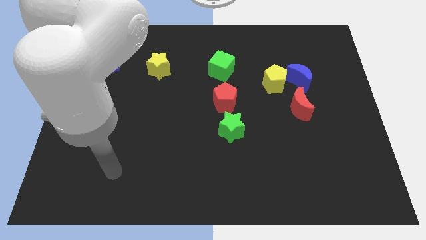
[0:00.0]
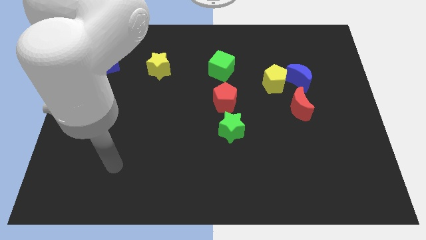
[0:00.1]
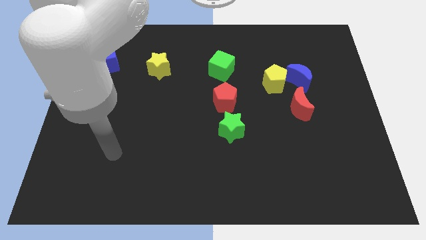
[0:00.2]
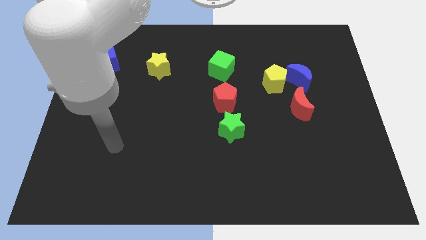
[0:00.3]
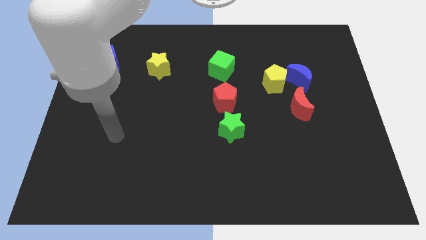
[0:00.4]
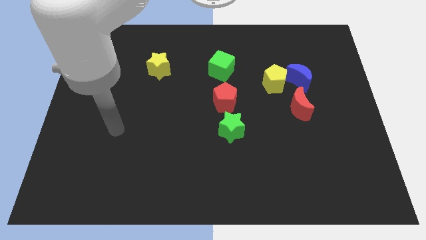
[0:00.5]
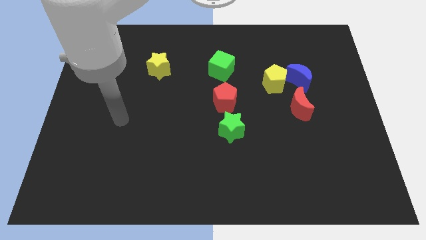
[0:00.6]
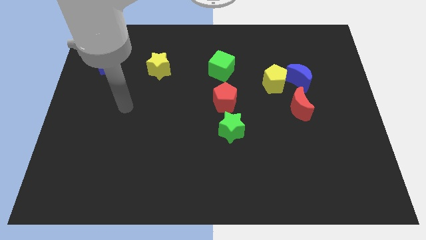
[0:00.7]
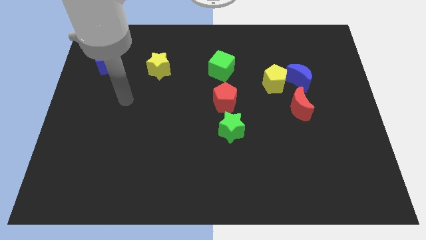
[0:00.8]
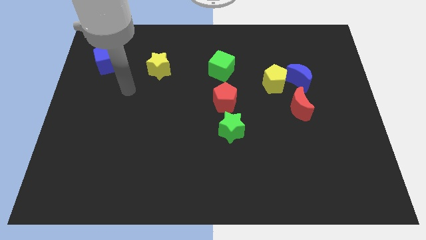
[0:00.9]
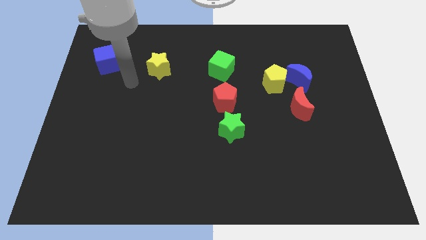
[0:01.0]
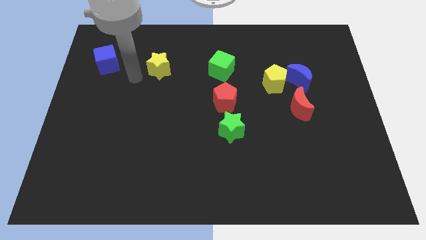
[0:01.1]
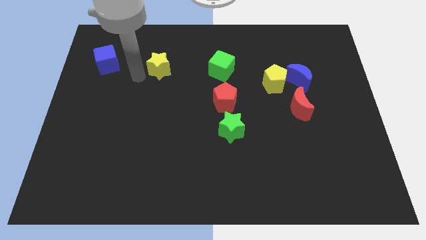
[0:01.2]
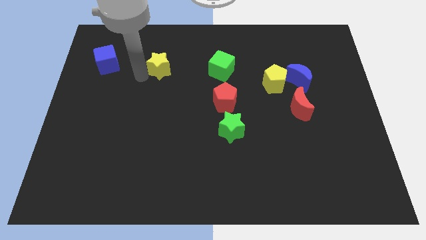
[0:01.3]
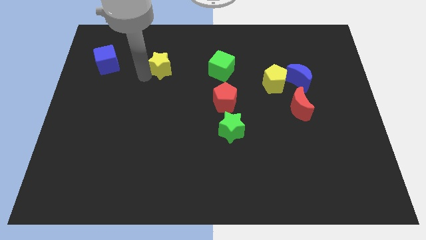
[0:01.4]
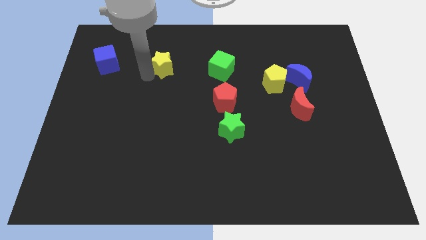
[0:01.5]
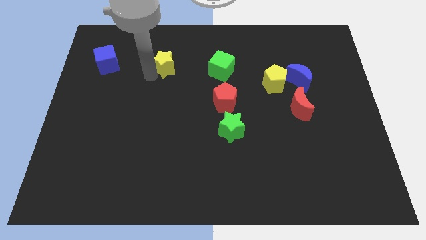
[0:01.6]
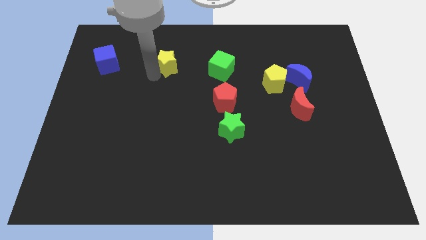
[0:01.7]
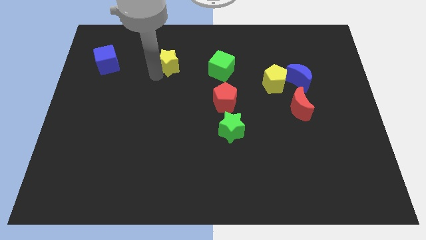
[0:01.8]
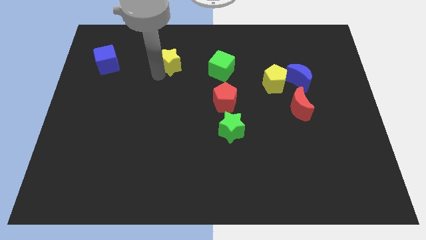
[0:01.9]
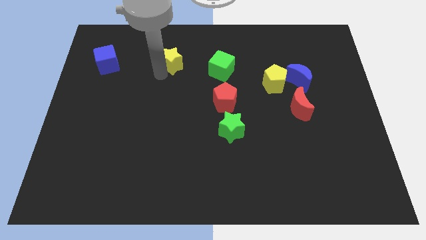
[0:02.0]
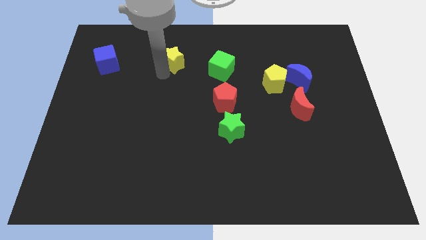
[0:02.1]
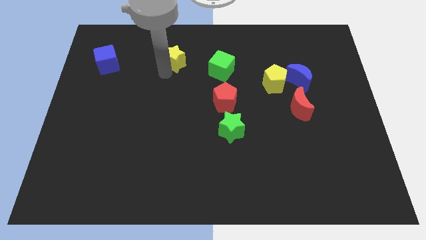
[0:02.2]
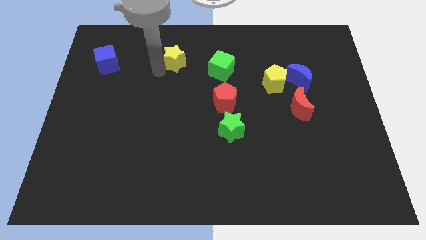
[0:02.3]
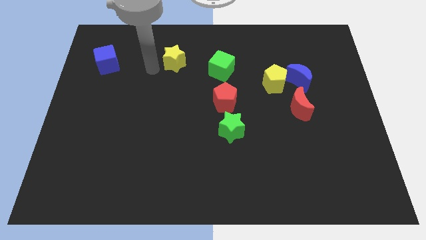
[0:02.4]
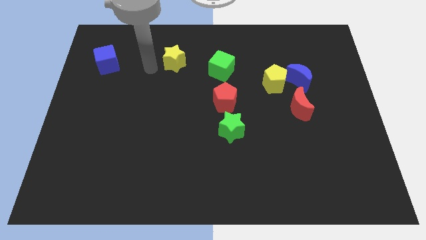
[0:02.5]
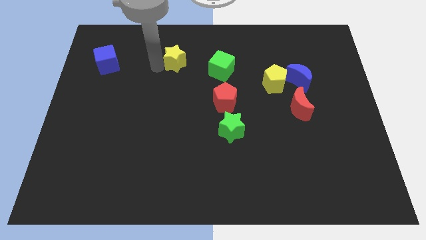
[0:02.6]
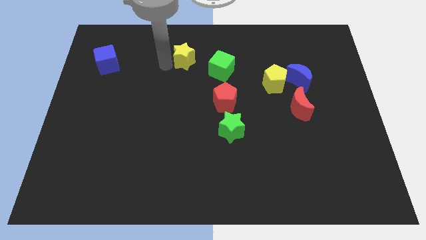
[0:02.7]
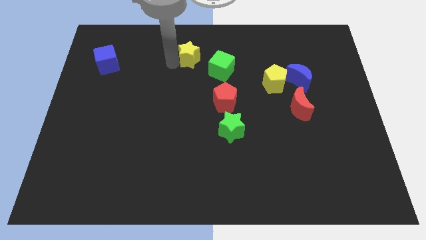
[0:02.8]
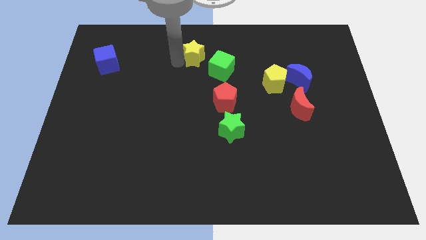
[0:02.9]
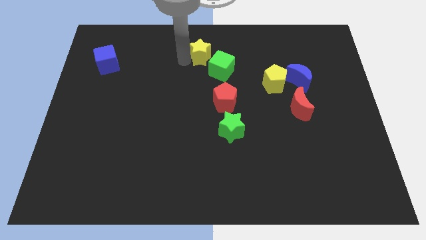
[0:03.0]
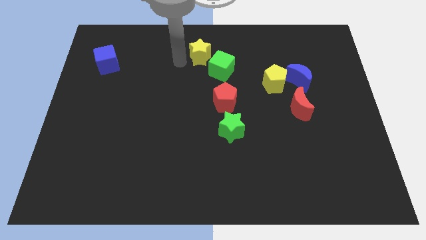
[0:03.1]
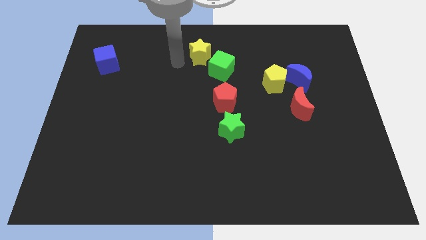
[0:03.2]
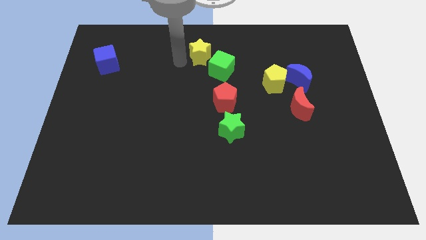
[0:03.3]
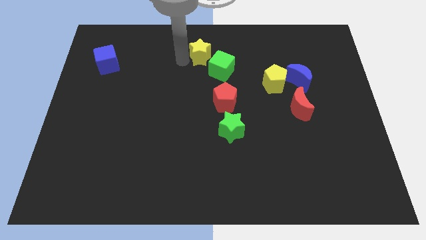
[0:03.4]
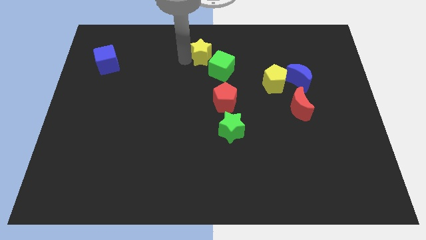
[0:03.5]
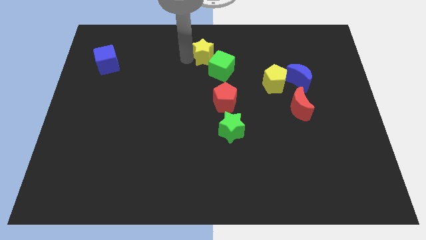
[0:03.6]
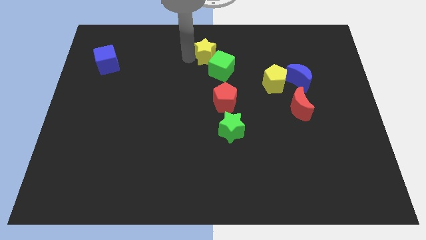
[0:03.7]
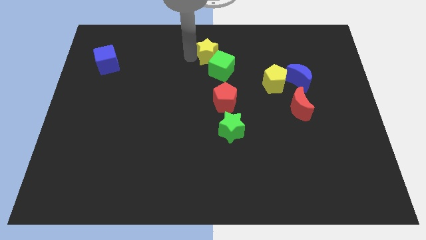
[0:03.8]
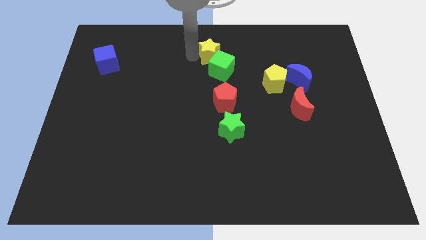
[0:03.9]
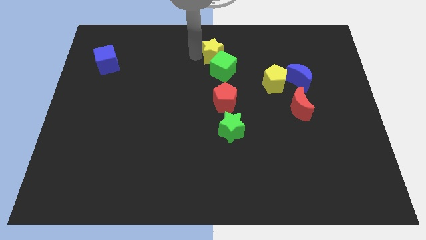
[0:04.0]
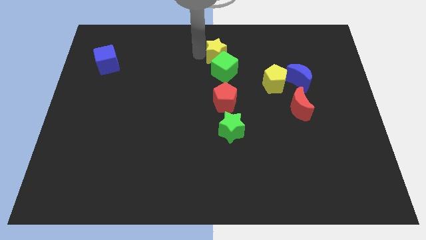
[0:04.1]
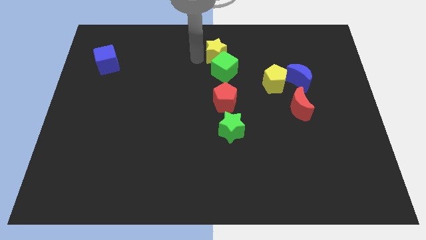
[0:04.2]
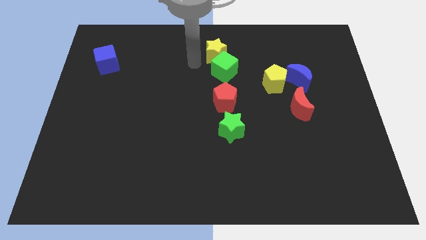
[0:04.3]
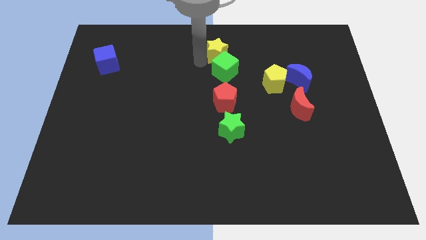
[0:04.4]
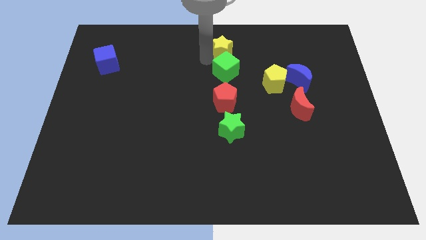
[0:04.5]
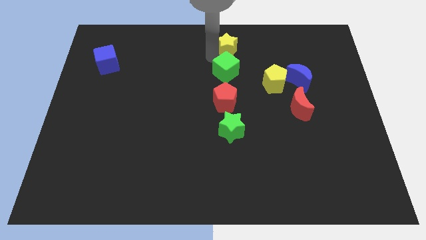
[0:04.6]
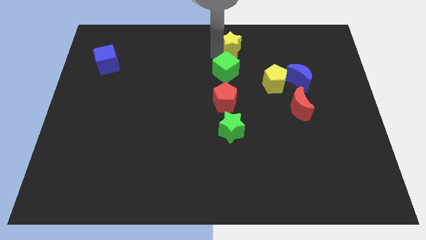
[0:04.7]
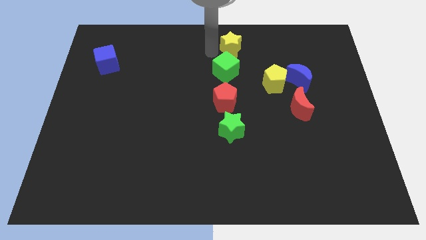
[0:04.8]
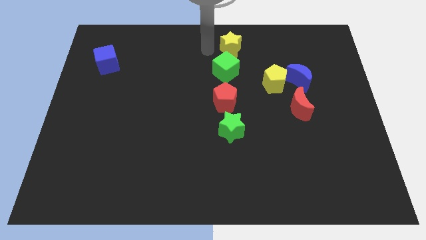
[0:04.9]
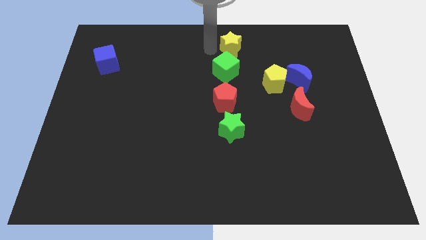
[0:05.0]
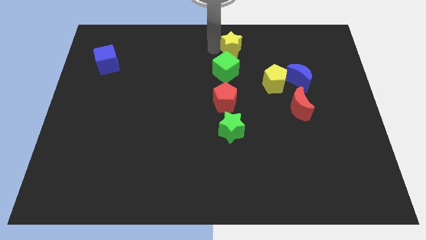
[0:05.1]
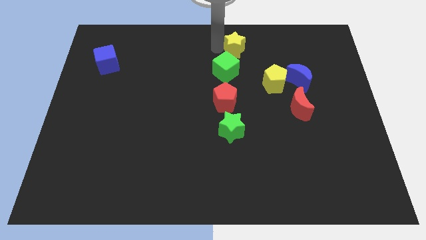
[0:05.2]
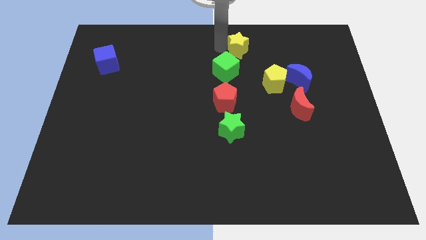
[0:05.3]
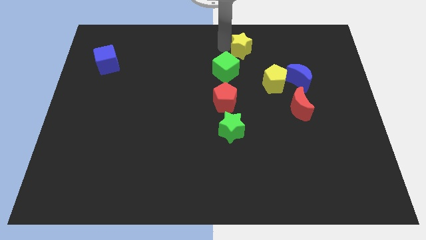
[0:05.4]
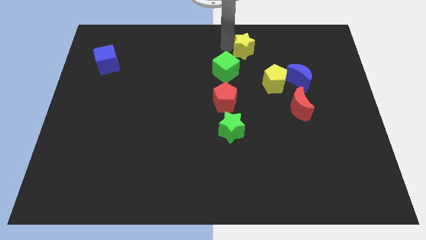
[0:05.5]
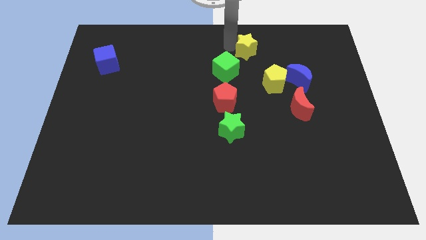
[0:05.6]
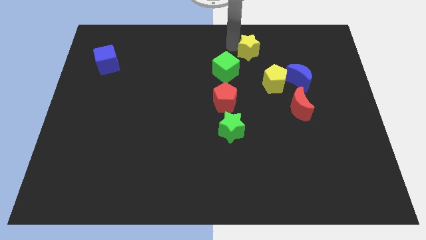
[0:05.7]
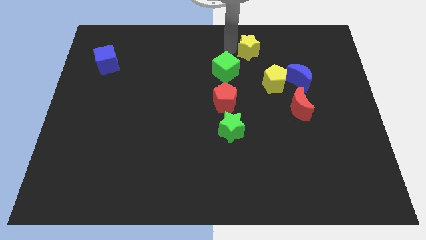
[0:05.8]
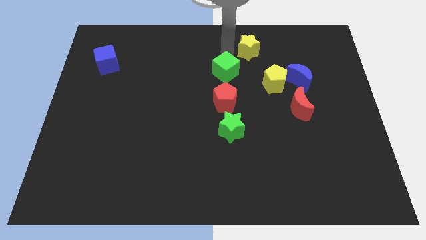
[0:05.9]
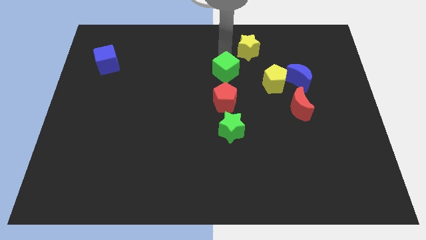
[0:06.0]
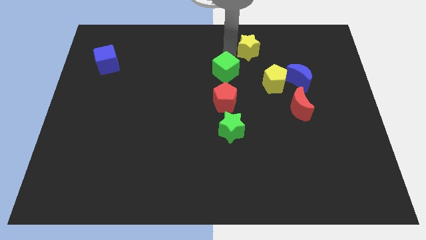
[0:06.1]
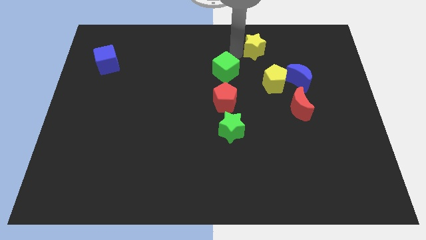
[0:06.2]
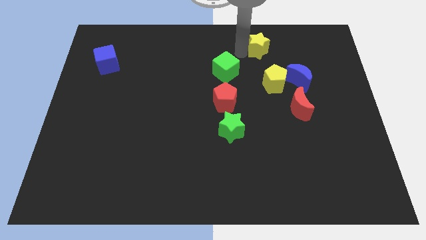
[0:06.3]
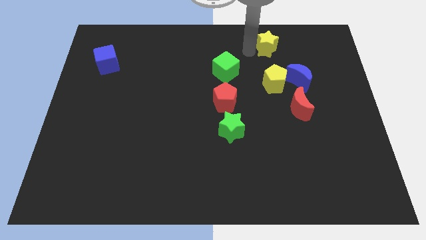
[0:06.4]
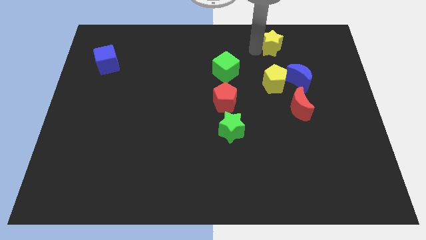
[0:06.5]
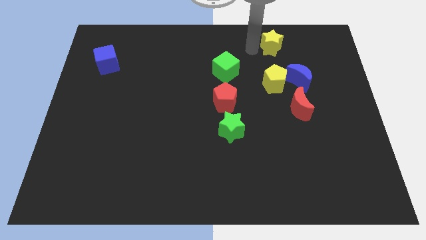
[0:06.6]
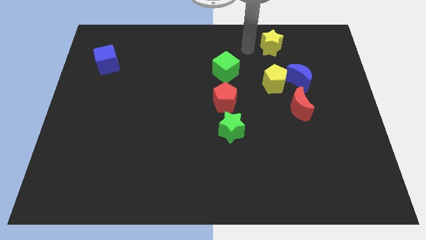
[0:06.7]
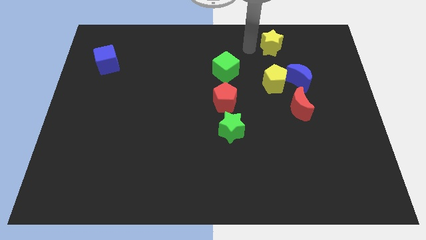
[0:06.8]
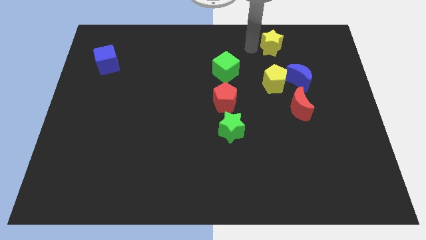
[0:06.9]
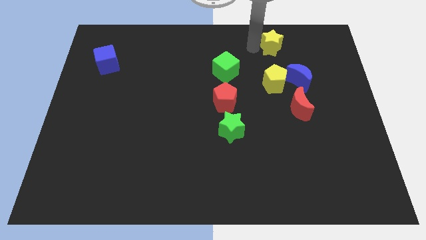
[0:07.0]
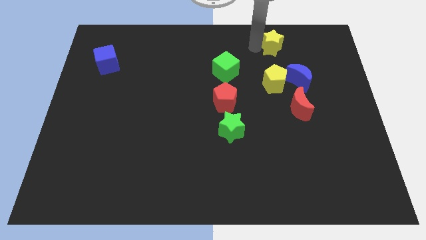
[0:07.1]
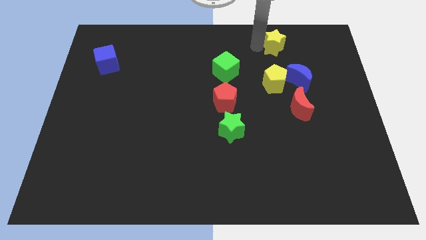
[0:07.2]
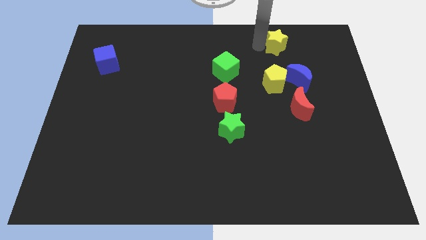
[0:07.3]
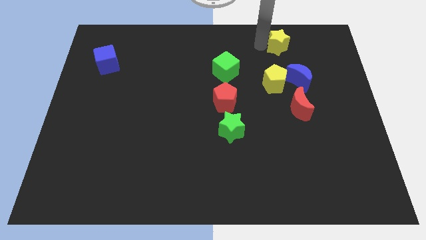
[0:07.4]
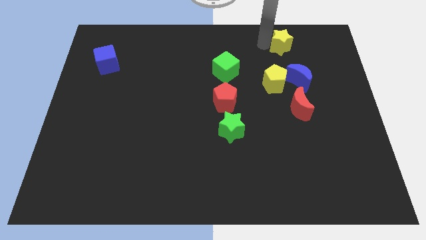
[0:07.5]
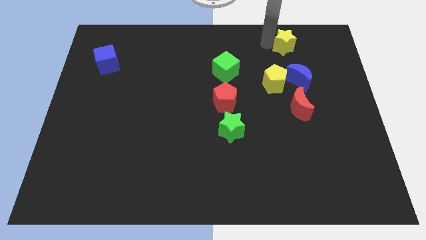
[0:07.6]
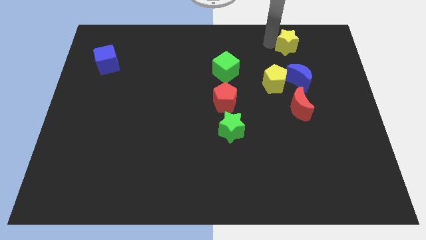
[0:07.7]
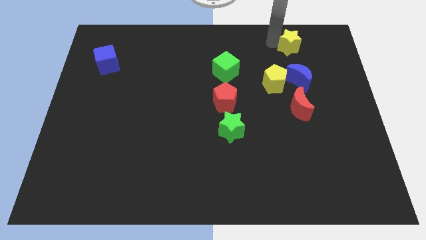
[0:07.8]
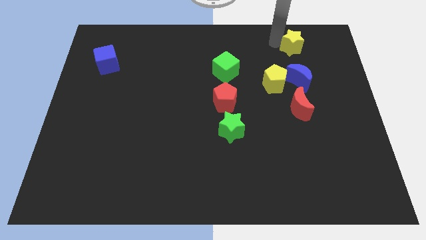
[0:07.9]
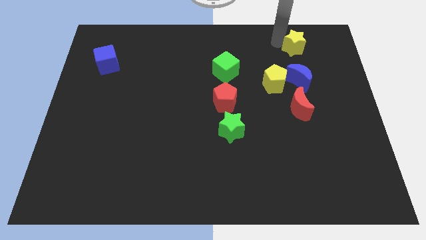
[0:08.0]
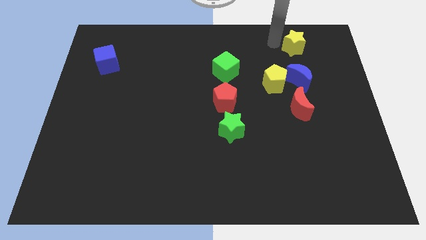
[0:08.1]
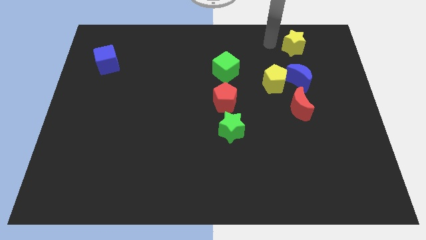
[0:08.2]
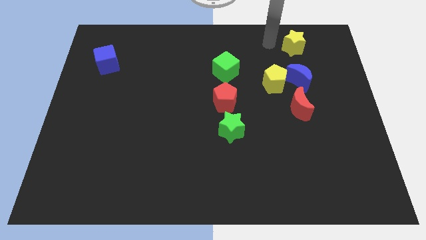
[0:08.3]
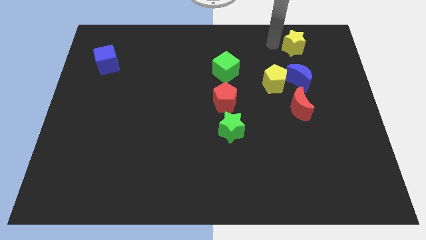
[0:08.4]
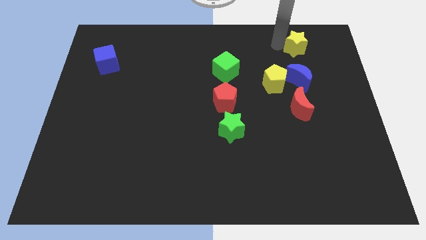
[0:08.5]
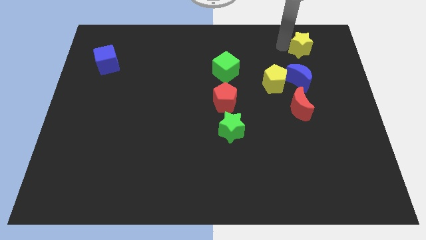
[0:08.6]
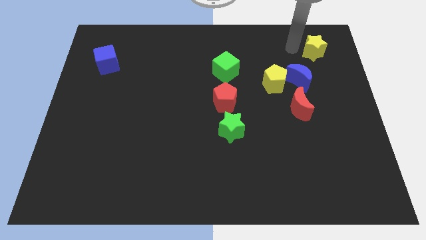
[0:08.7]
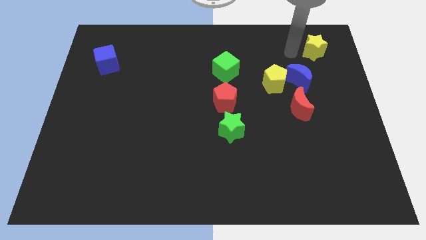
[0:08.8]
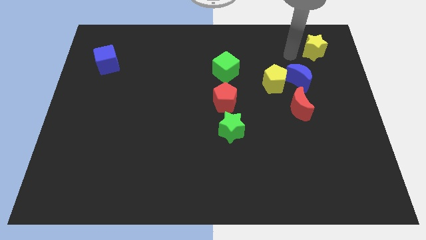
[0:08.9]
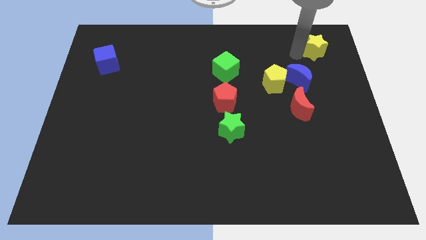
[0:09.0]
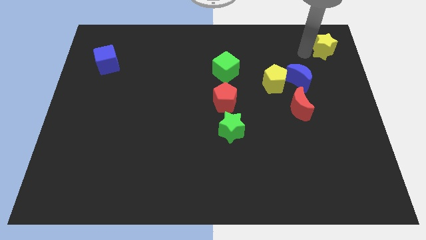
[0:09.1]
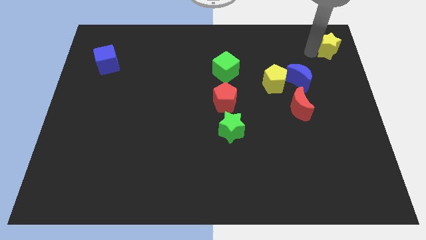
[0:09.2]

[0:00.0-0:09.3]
slide the yellow star to the top right
